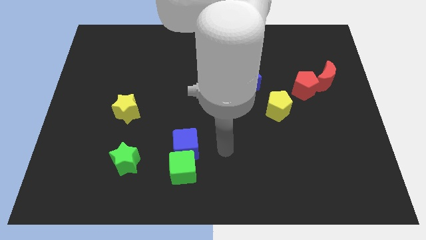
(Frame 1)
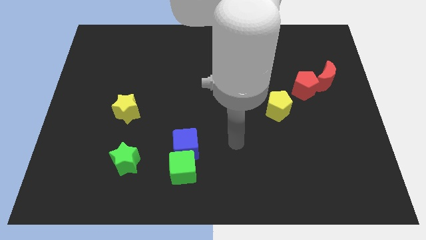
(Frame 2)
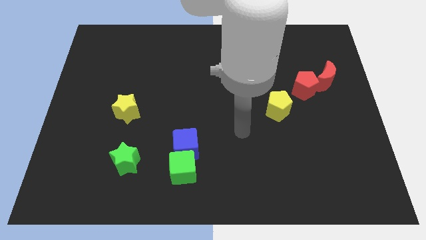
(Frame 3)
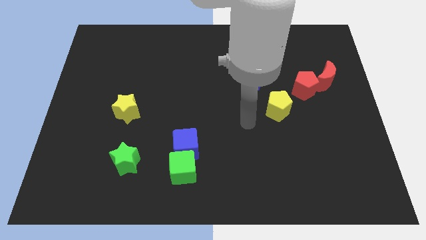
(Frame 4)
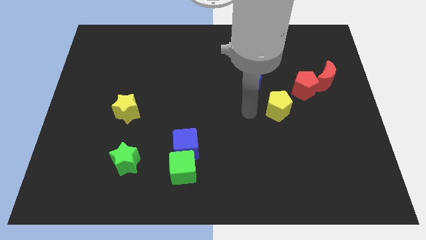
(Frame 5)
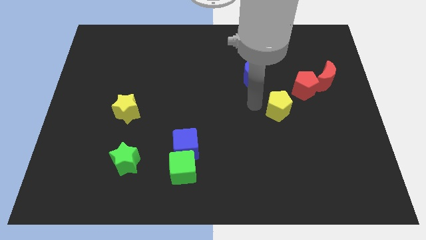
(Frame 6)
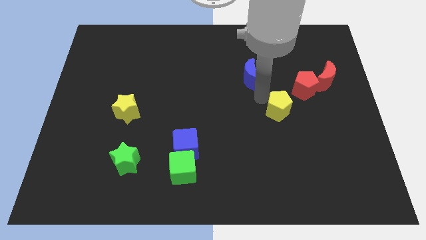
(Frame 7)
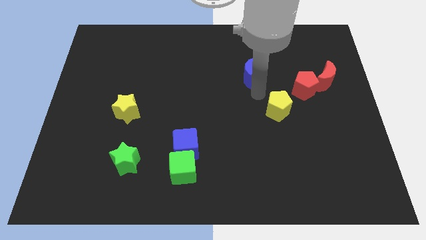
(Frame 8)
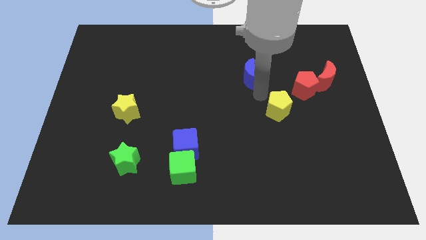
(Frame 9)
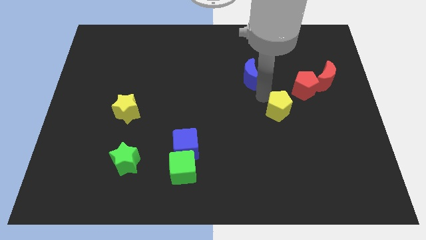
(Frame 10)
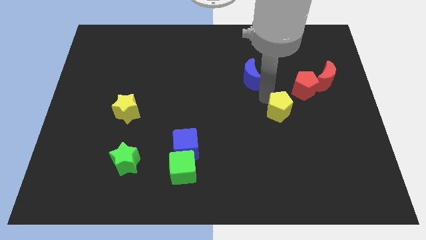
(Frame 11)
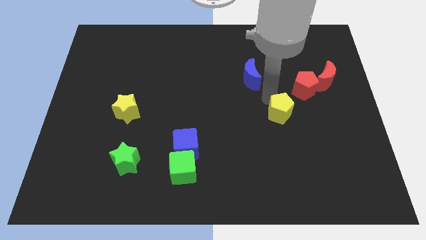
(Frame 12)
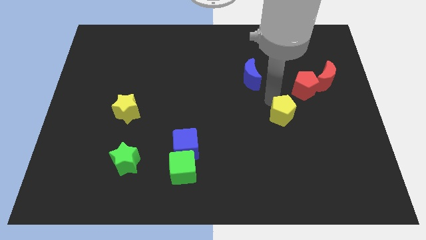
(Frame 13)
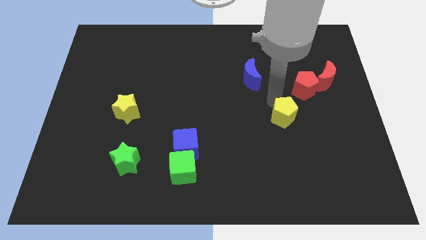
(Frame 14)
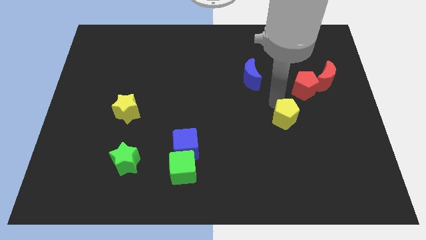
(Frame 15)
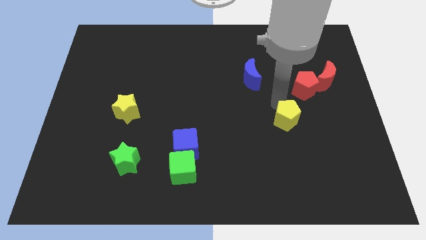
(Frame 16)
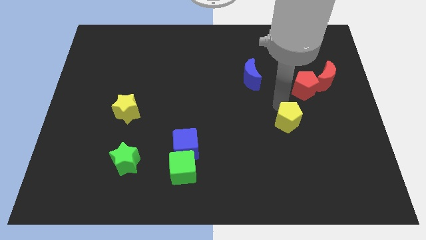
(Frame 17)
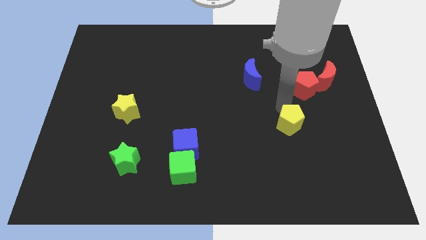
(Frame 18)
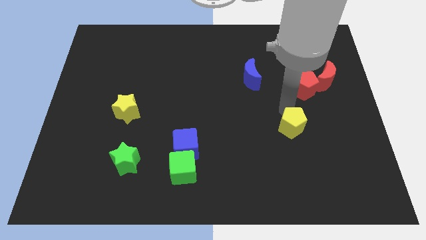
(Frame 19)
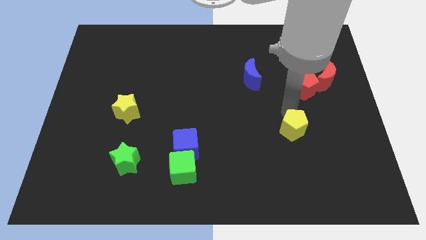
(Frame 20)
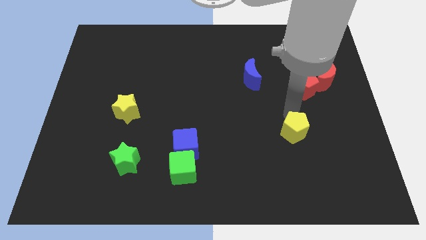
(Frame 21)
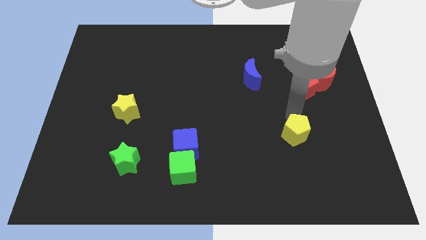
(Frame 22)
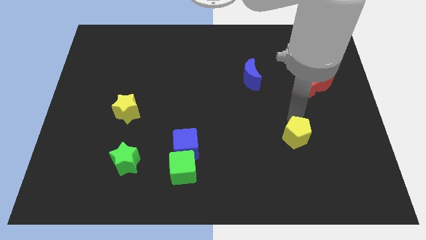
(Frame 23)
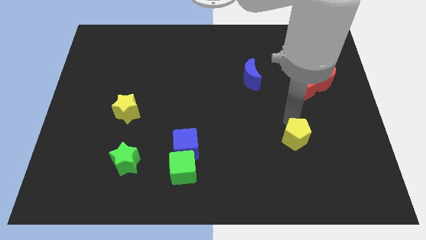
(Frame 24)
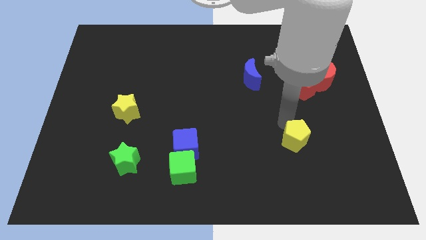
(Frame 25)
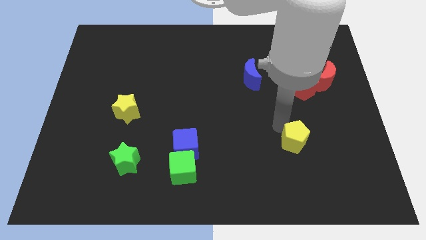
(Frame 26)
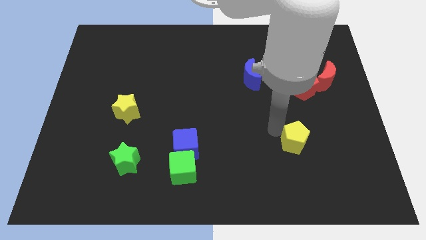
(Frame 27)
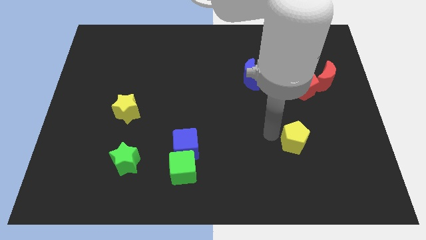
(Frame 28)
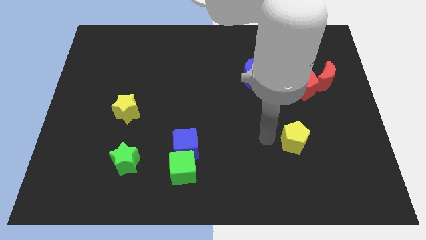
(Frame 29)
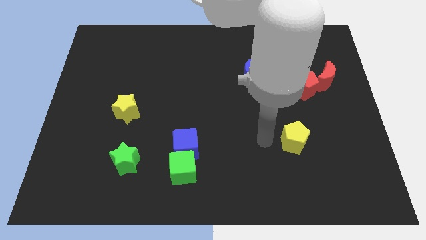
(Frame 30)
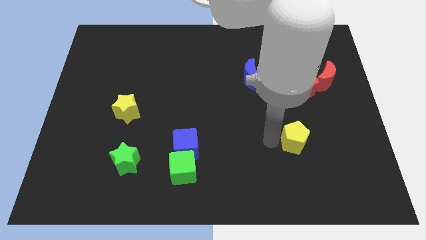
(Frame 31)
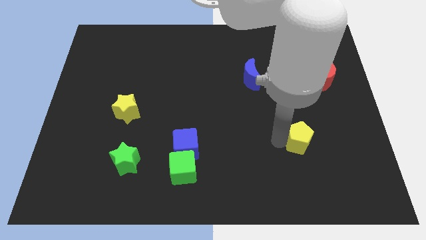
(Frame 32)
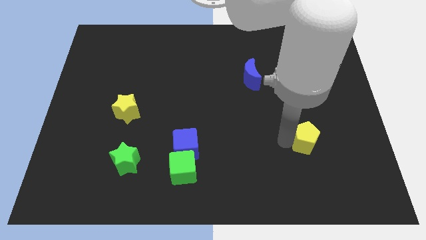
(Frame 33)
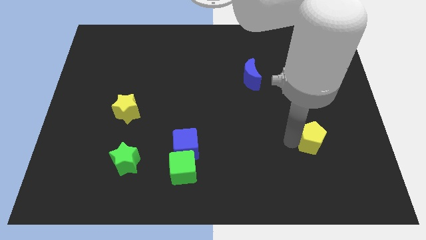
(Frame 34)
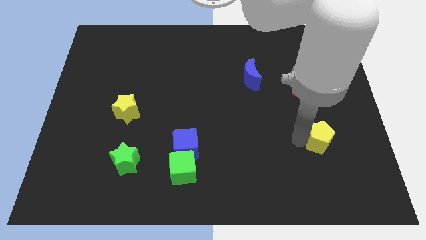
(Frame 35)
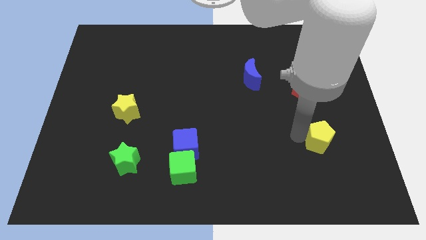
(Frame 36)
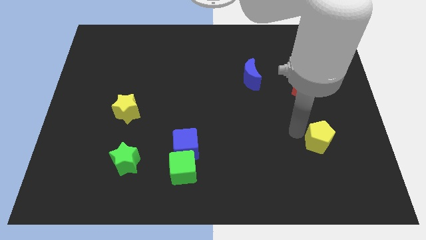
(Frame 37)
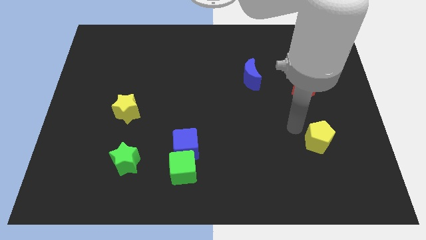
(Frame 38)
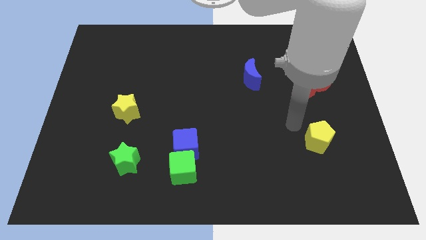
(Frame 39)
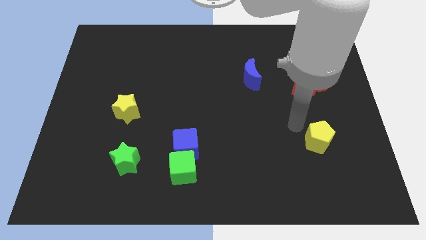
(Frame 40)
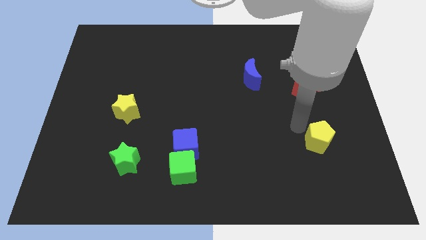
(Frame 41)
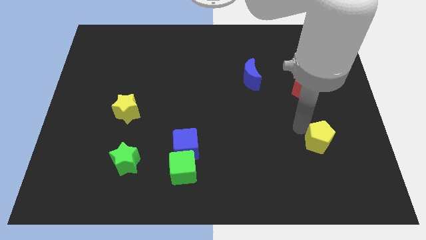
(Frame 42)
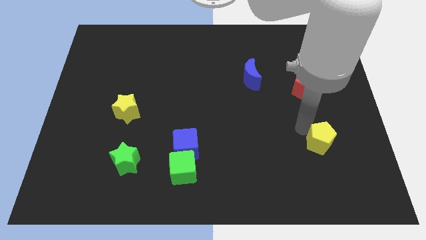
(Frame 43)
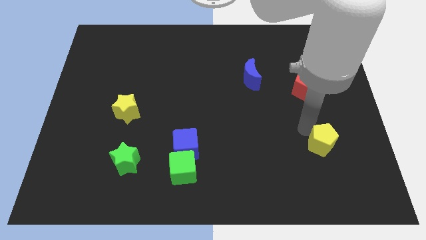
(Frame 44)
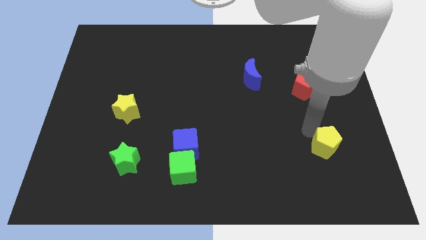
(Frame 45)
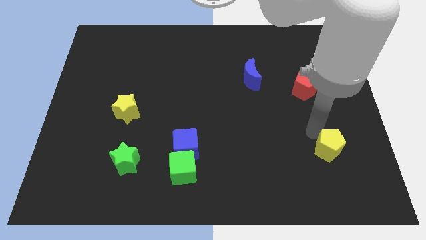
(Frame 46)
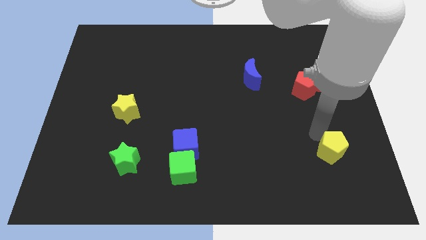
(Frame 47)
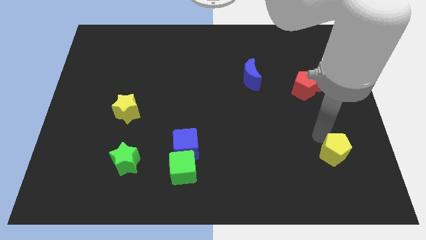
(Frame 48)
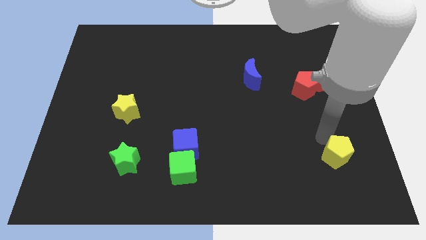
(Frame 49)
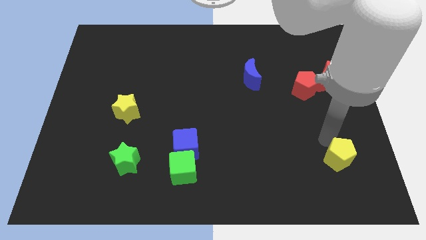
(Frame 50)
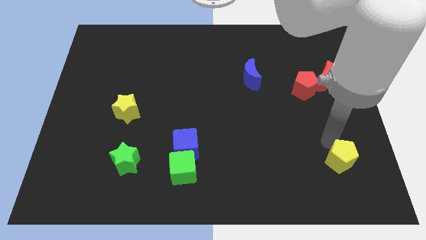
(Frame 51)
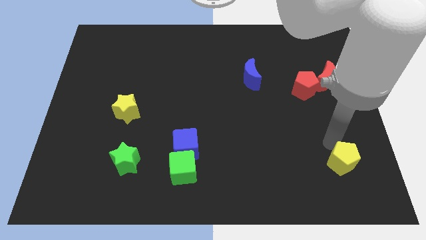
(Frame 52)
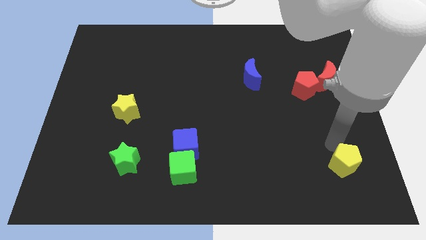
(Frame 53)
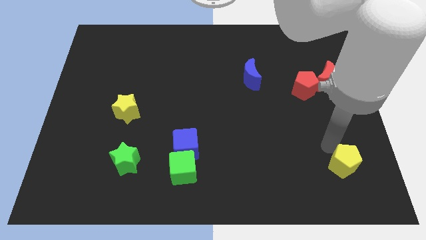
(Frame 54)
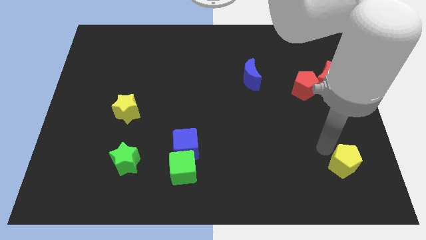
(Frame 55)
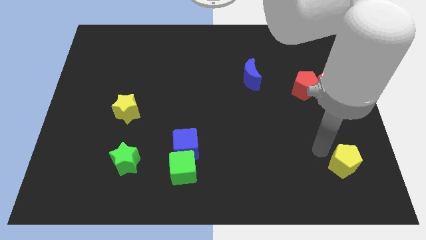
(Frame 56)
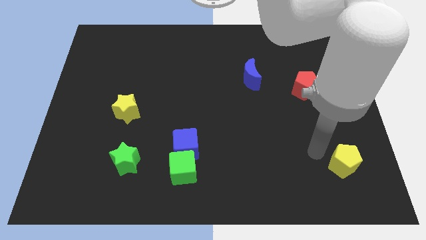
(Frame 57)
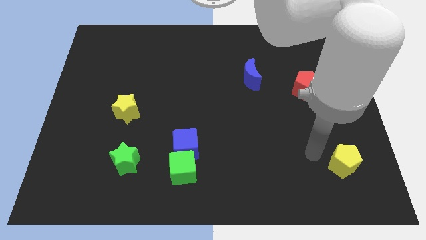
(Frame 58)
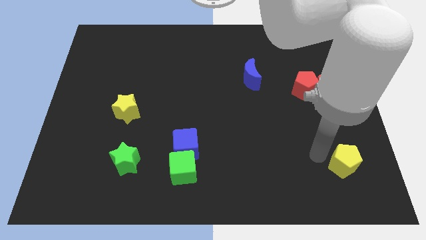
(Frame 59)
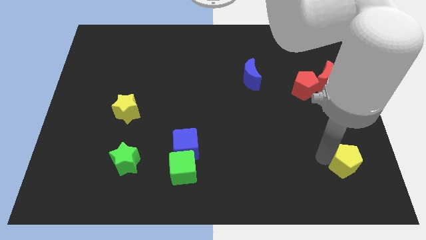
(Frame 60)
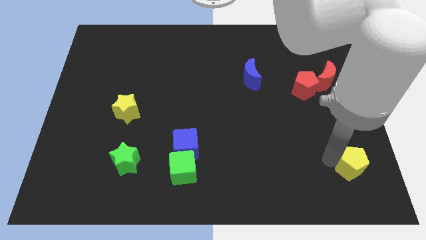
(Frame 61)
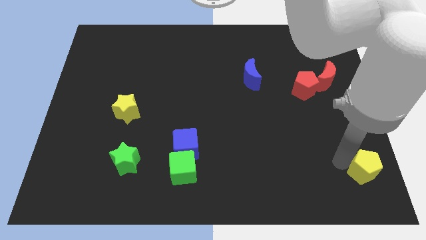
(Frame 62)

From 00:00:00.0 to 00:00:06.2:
slide the yellow pentagon to the bottom right corner

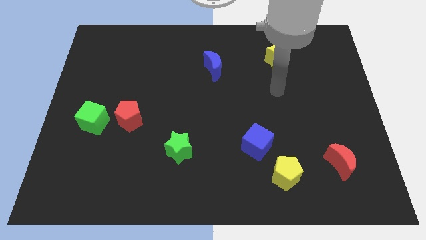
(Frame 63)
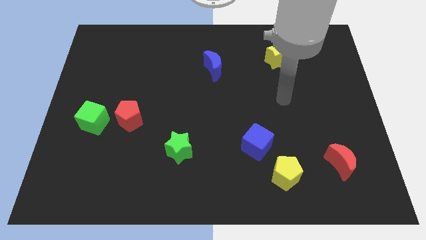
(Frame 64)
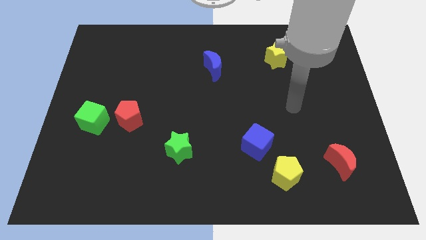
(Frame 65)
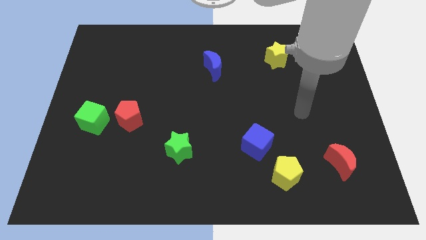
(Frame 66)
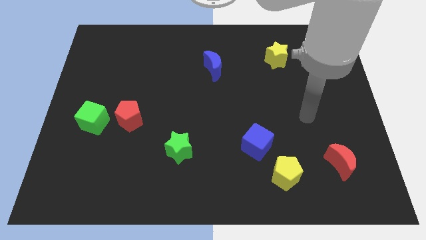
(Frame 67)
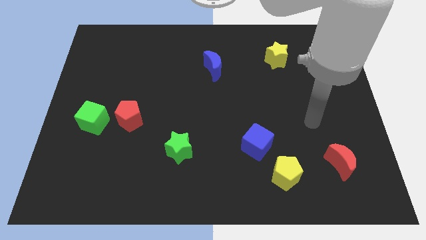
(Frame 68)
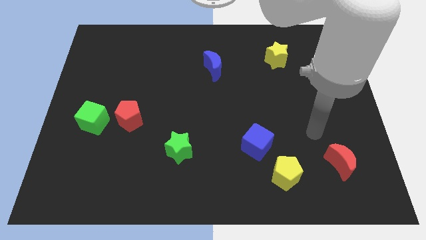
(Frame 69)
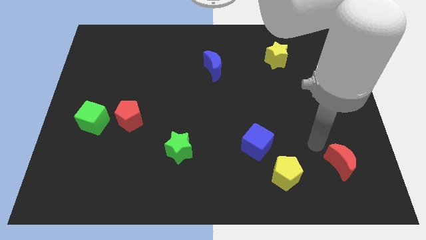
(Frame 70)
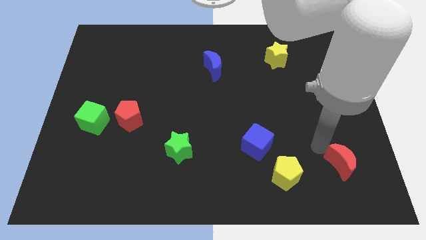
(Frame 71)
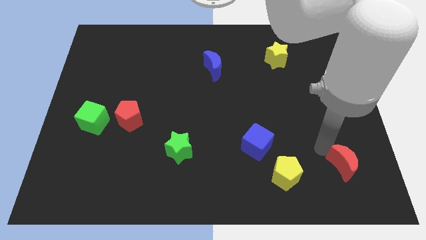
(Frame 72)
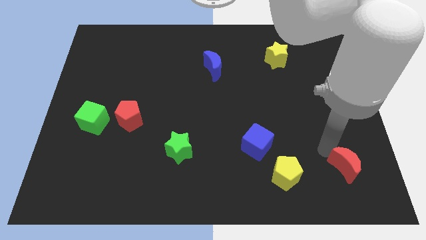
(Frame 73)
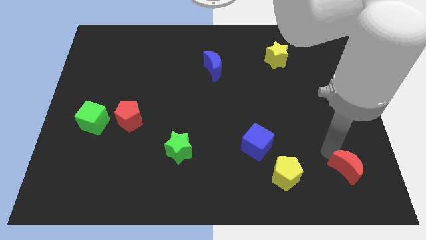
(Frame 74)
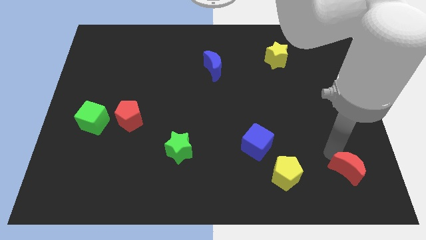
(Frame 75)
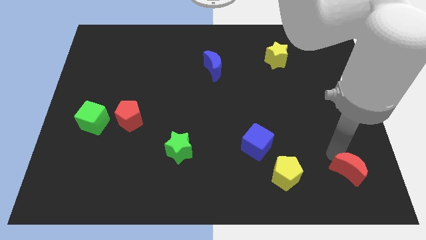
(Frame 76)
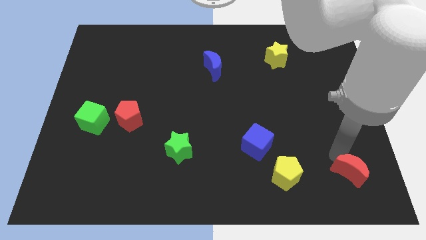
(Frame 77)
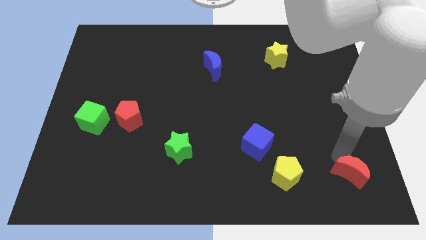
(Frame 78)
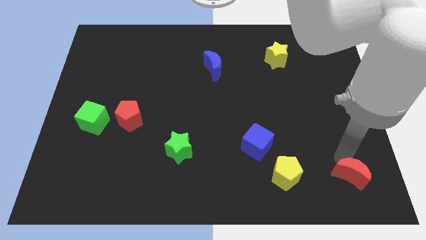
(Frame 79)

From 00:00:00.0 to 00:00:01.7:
push the red moon to the bottom right corner
